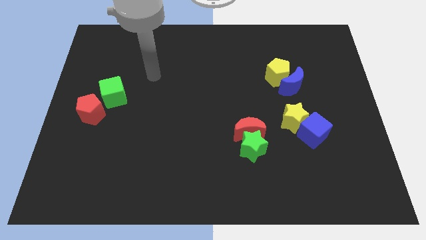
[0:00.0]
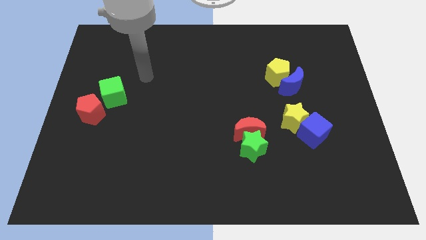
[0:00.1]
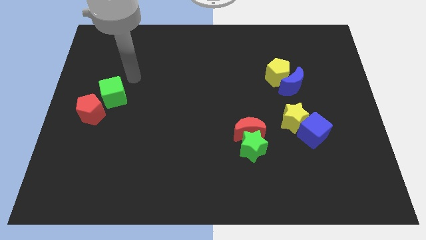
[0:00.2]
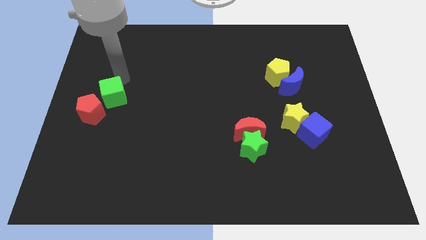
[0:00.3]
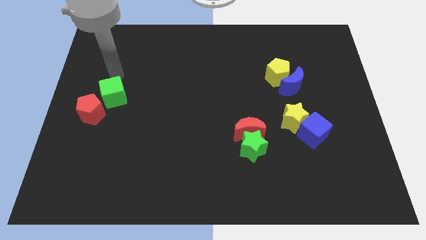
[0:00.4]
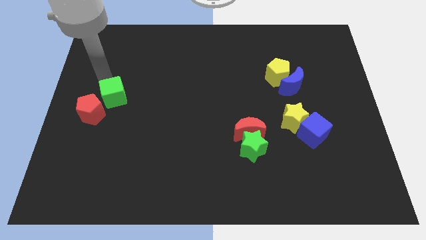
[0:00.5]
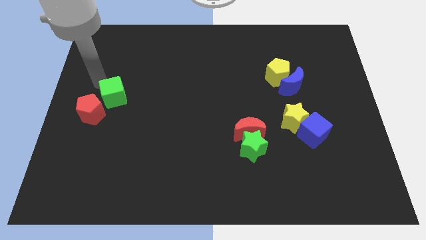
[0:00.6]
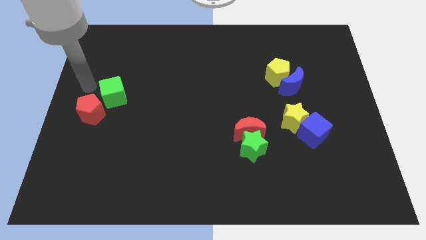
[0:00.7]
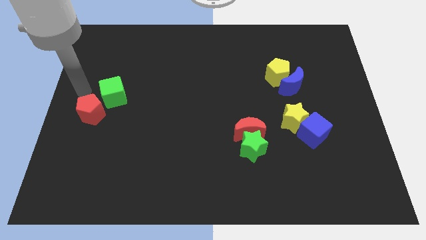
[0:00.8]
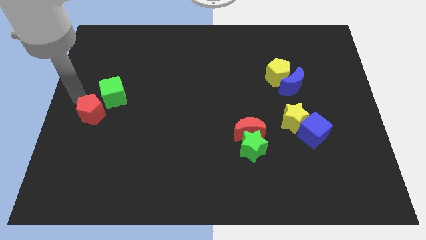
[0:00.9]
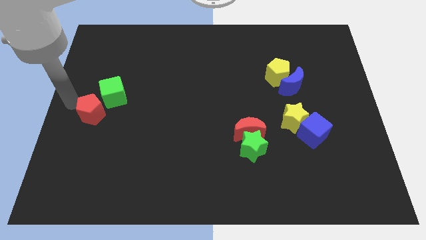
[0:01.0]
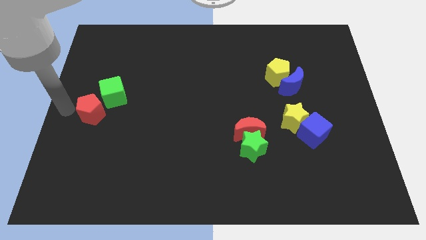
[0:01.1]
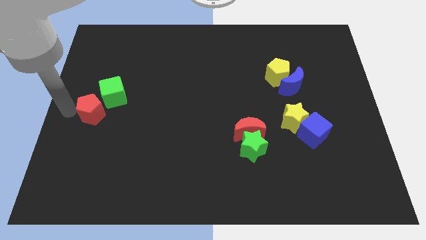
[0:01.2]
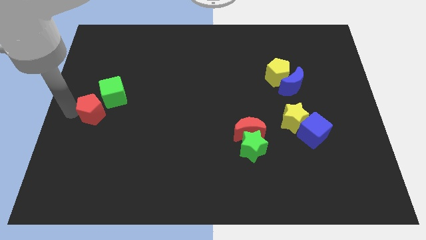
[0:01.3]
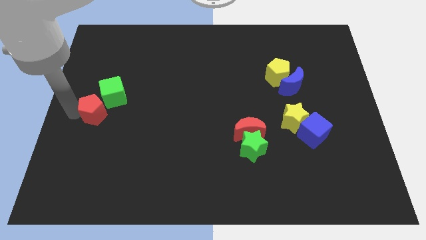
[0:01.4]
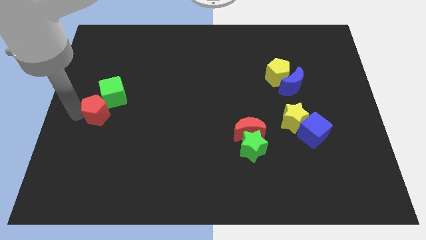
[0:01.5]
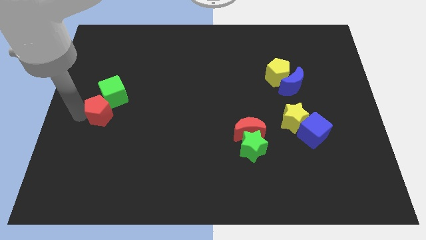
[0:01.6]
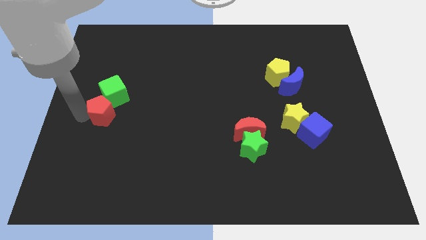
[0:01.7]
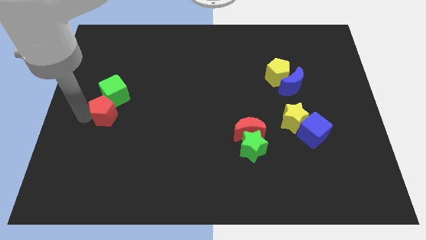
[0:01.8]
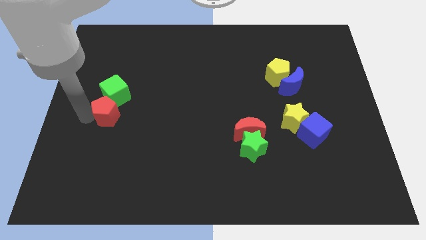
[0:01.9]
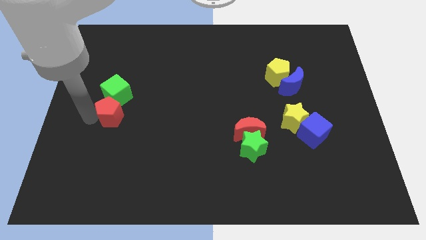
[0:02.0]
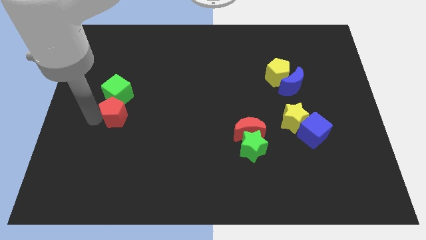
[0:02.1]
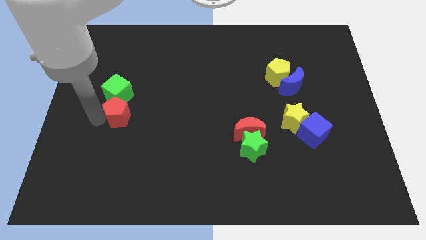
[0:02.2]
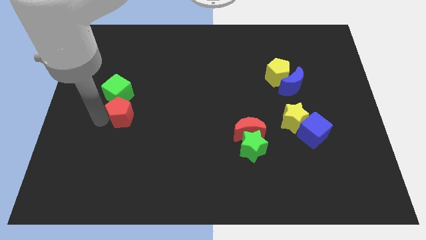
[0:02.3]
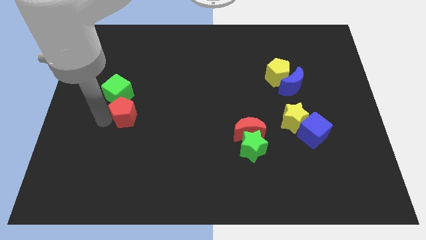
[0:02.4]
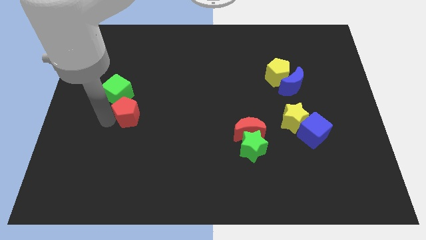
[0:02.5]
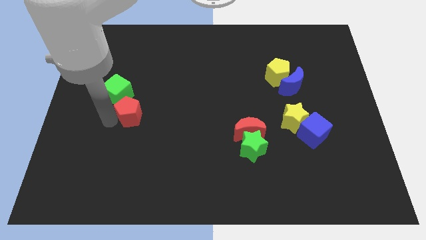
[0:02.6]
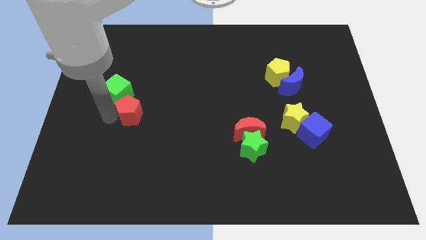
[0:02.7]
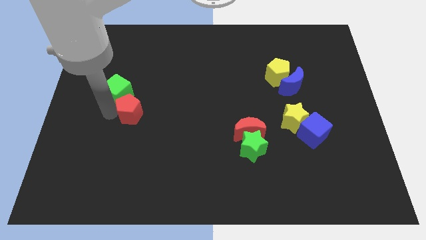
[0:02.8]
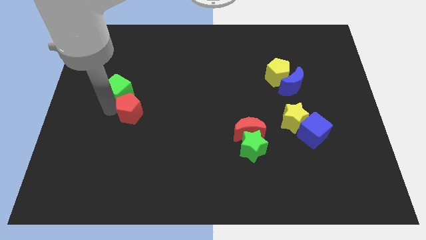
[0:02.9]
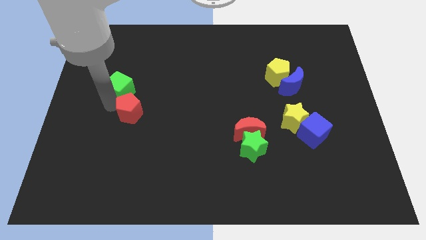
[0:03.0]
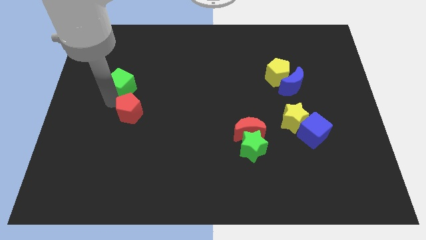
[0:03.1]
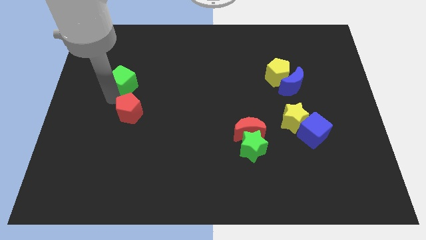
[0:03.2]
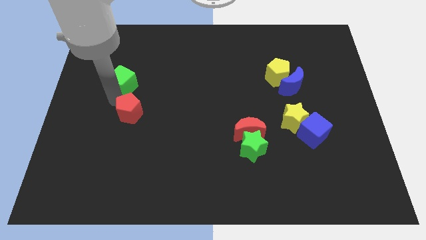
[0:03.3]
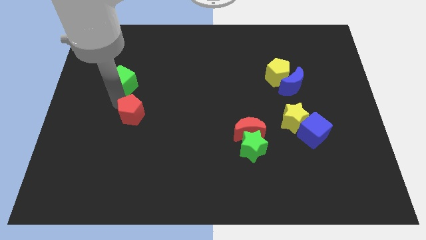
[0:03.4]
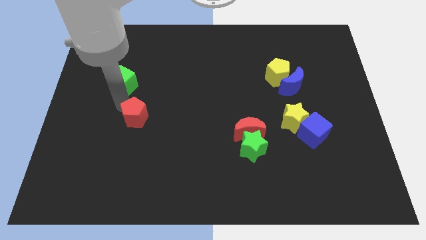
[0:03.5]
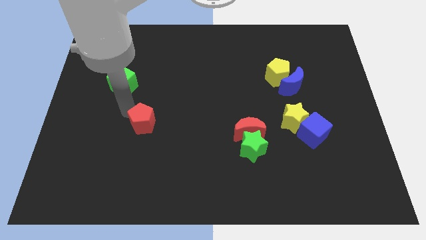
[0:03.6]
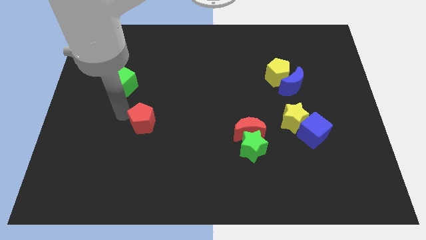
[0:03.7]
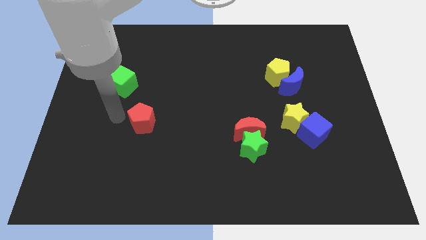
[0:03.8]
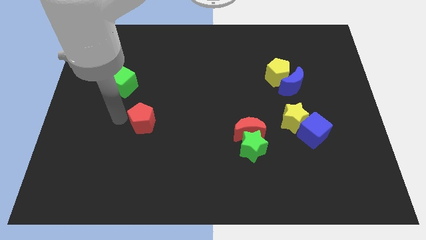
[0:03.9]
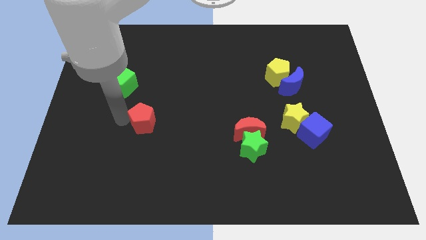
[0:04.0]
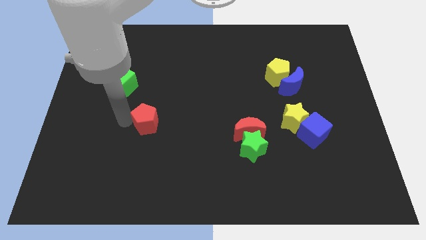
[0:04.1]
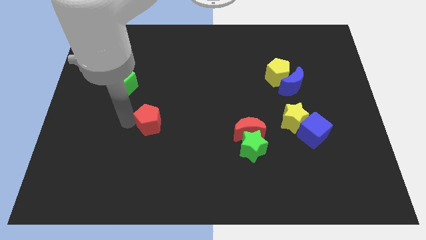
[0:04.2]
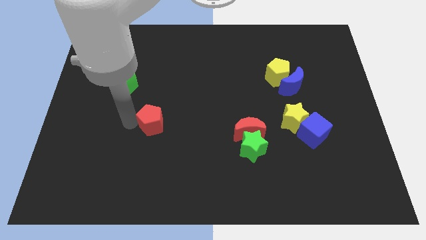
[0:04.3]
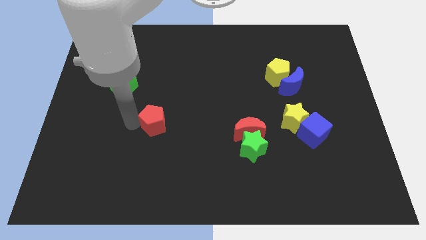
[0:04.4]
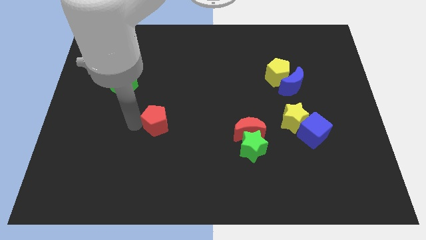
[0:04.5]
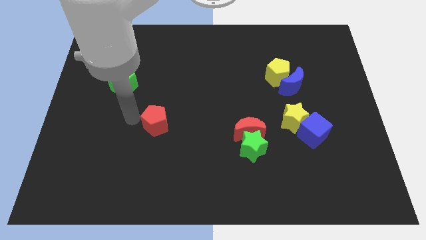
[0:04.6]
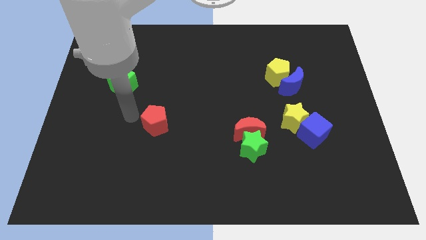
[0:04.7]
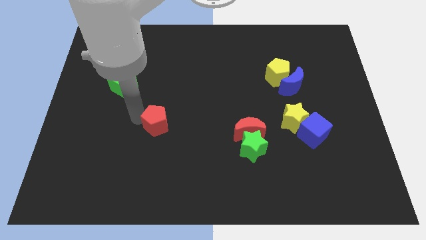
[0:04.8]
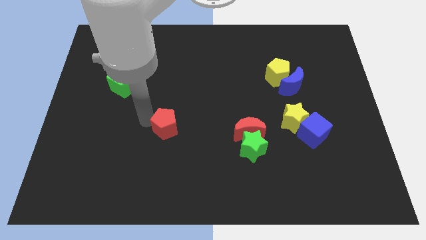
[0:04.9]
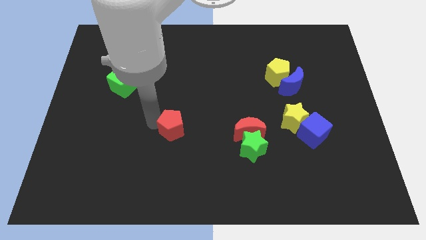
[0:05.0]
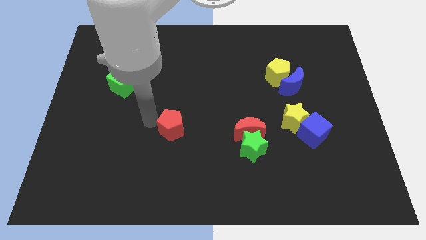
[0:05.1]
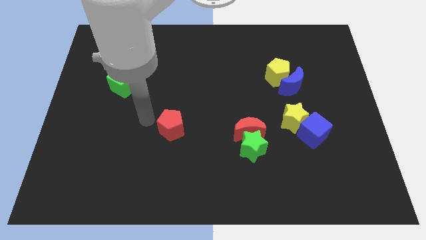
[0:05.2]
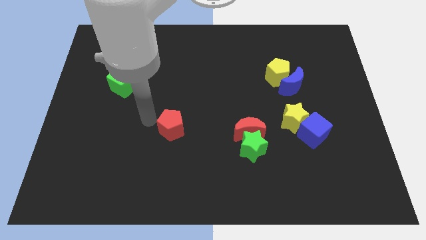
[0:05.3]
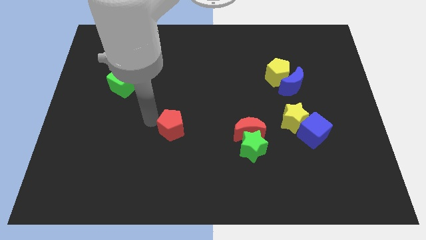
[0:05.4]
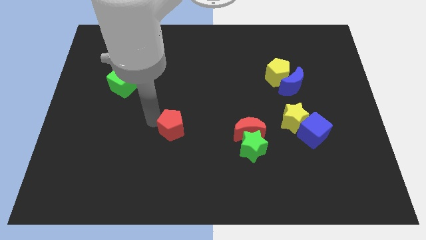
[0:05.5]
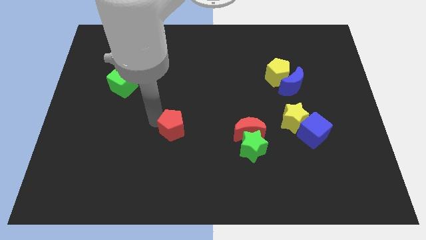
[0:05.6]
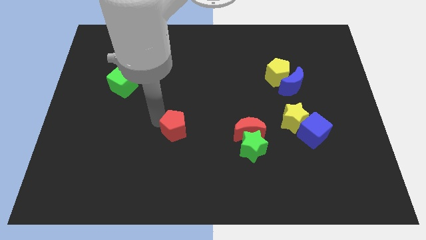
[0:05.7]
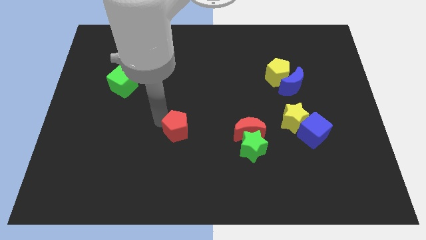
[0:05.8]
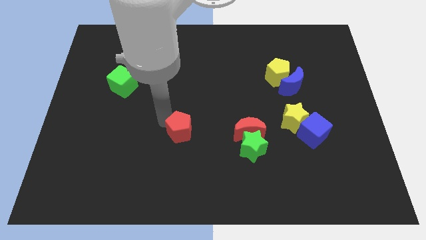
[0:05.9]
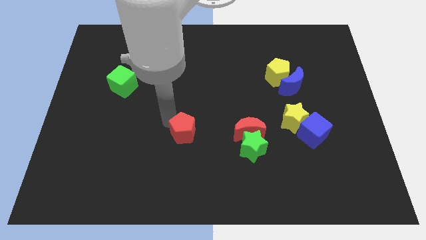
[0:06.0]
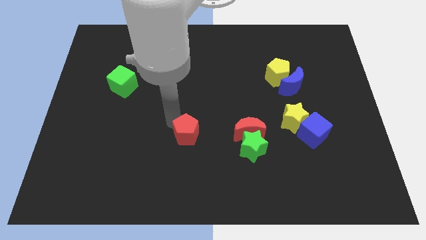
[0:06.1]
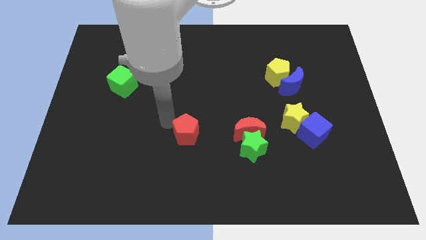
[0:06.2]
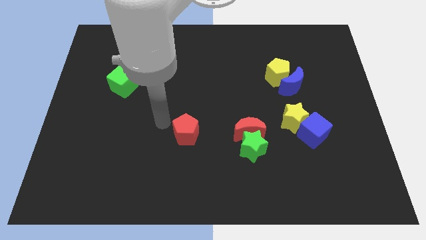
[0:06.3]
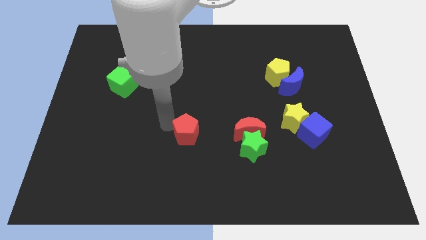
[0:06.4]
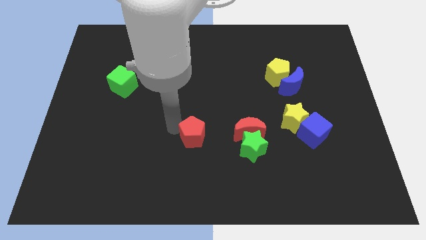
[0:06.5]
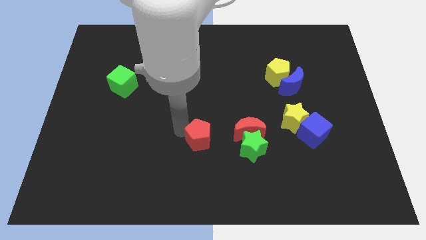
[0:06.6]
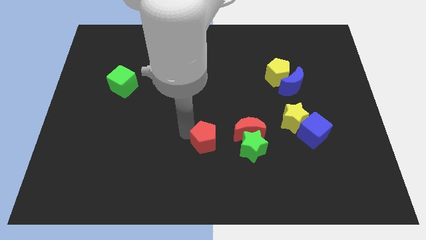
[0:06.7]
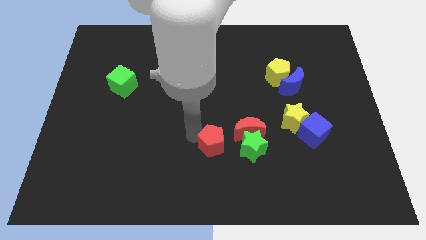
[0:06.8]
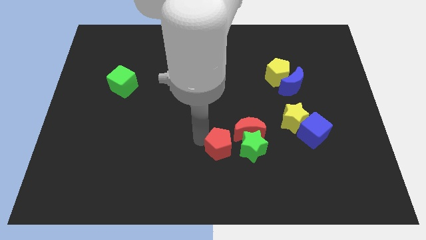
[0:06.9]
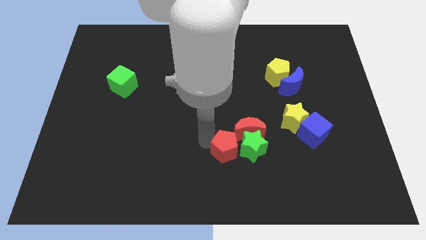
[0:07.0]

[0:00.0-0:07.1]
move the red pentagon next to the green star

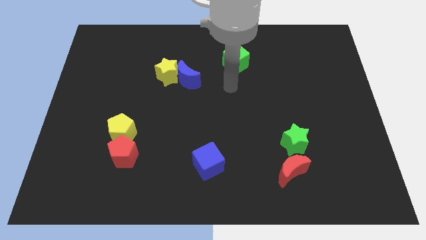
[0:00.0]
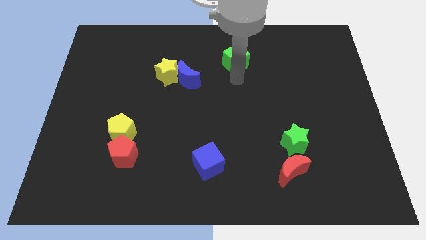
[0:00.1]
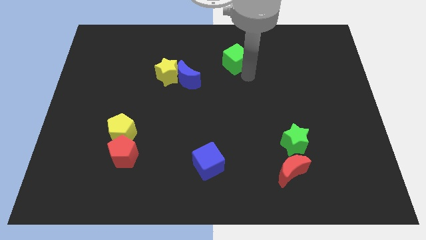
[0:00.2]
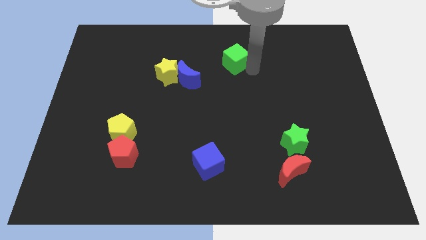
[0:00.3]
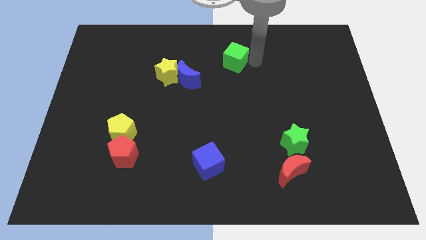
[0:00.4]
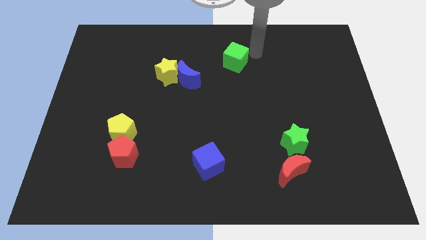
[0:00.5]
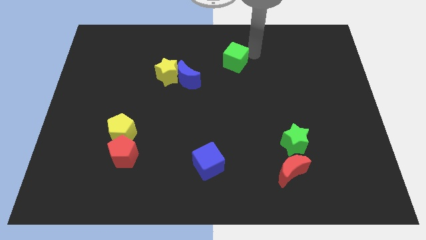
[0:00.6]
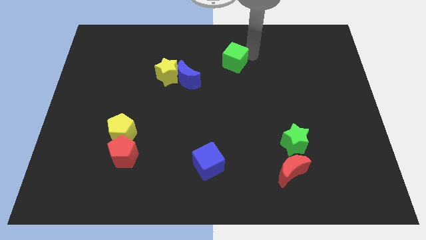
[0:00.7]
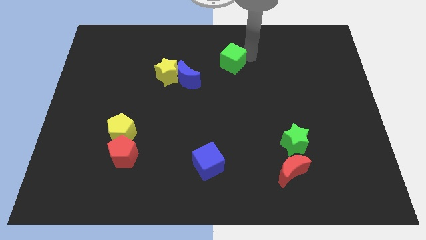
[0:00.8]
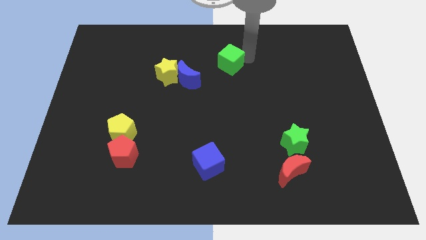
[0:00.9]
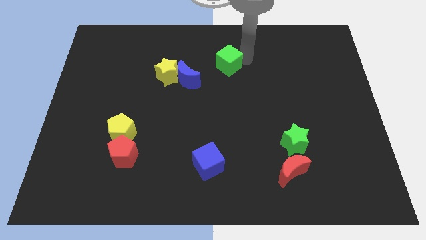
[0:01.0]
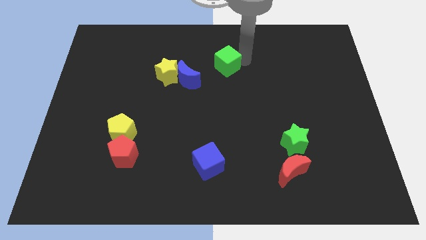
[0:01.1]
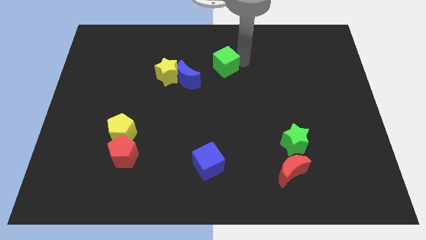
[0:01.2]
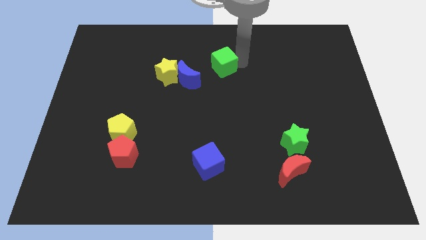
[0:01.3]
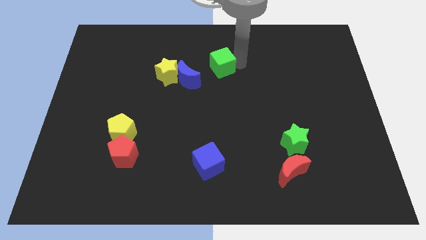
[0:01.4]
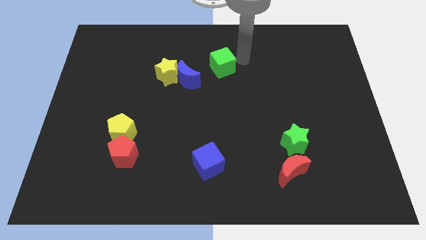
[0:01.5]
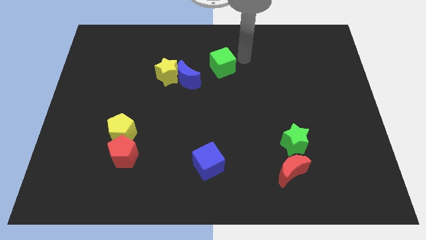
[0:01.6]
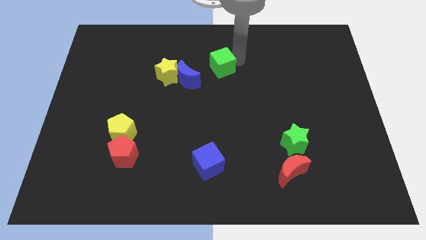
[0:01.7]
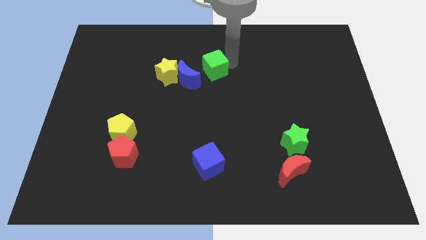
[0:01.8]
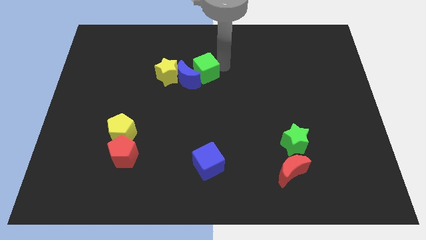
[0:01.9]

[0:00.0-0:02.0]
put the green cube next to the blue moon
